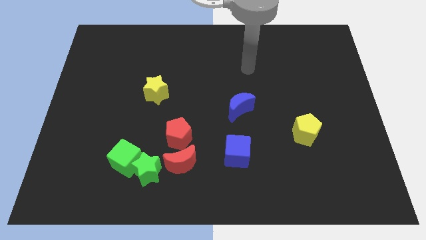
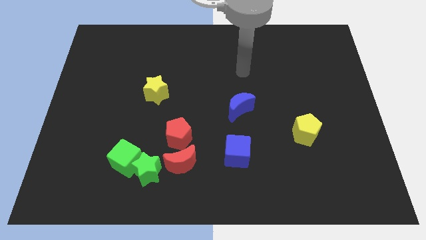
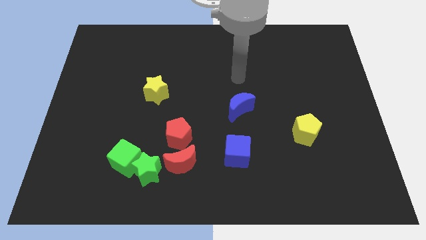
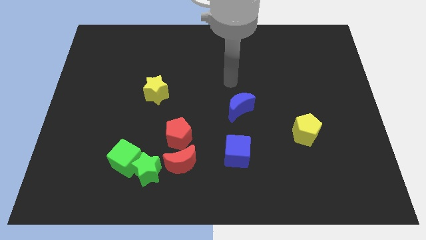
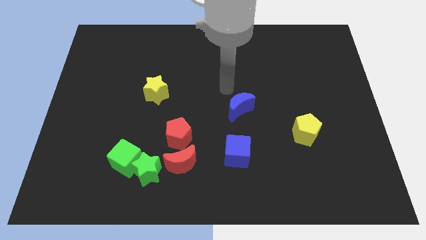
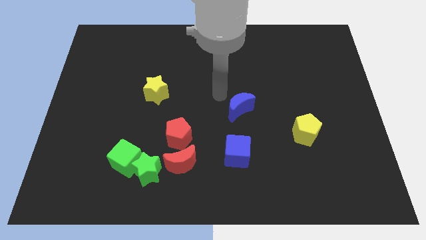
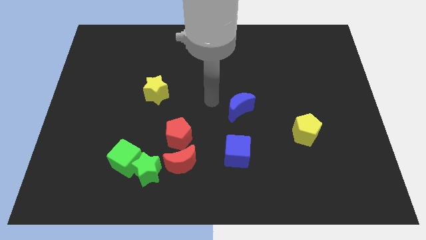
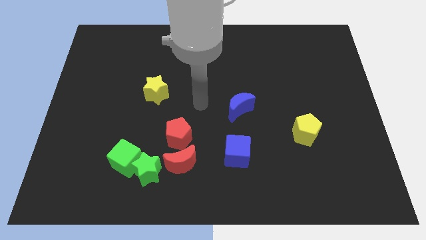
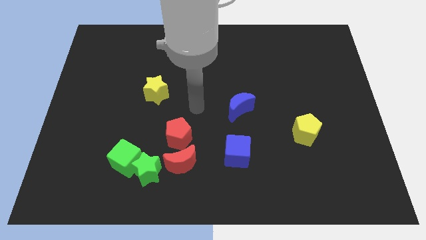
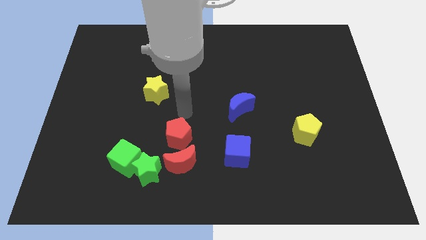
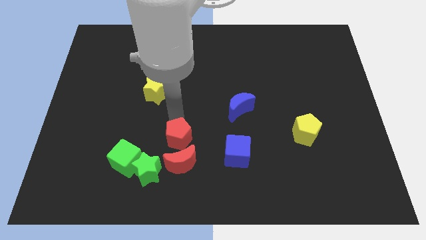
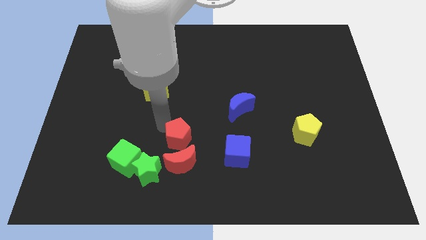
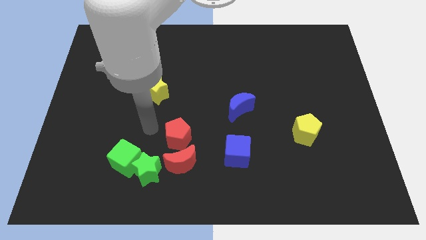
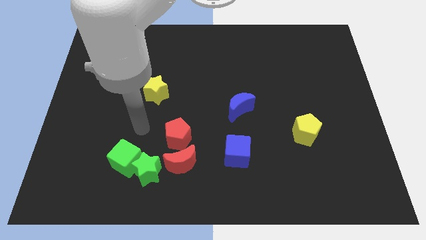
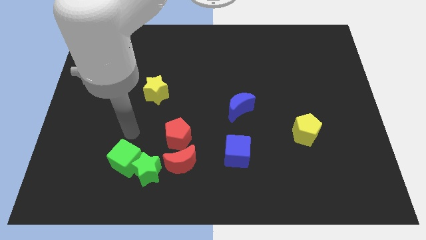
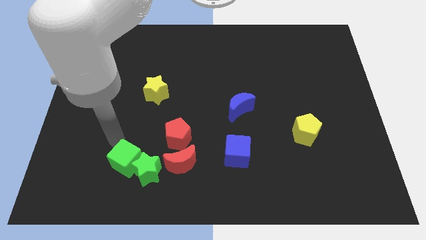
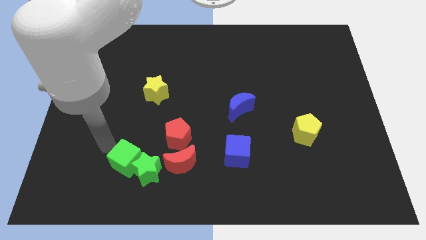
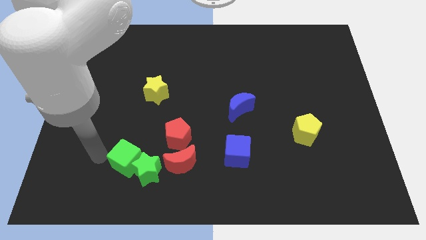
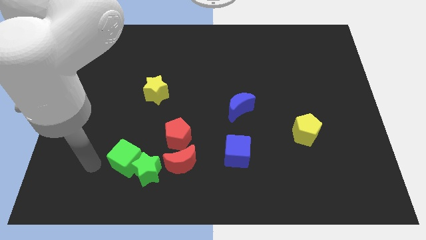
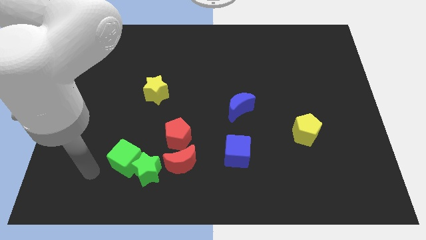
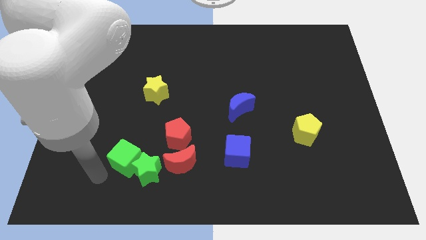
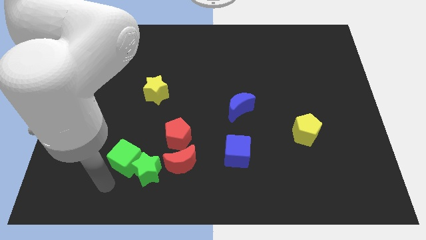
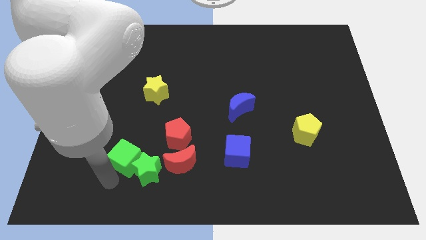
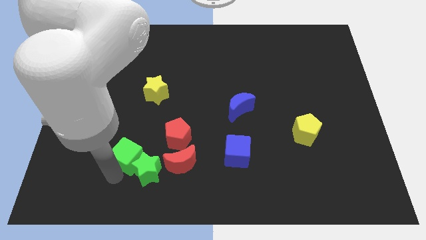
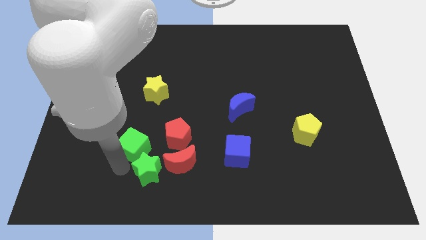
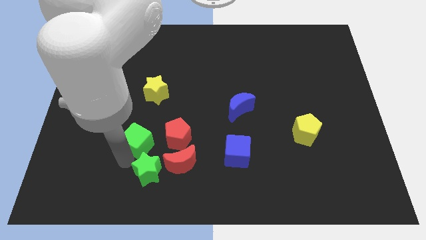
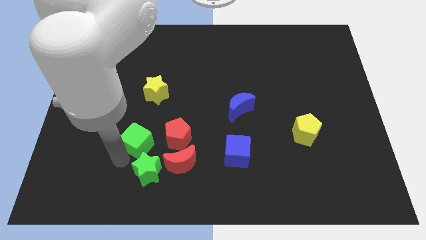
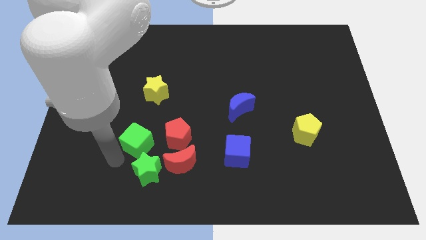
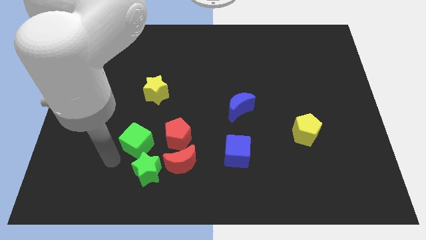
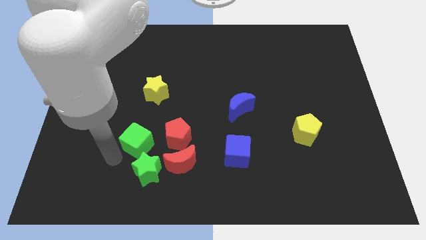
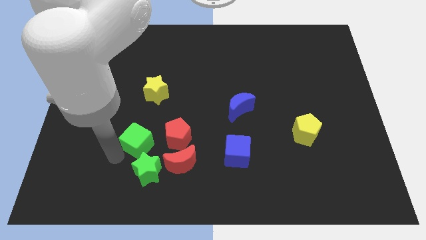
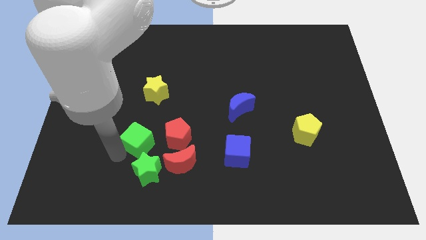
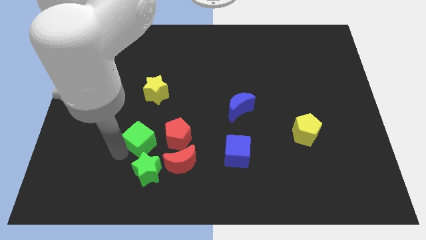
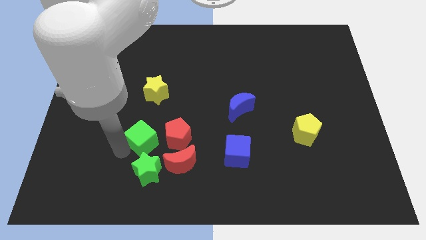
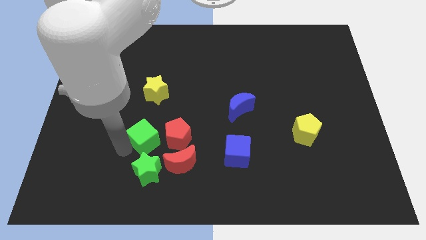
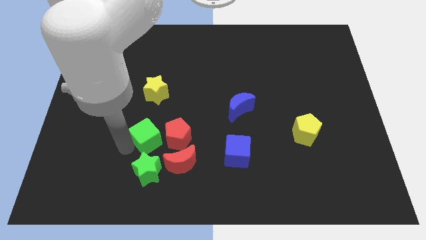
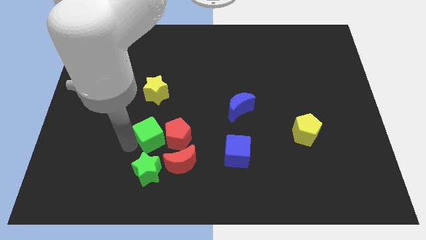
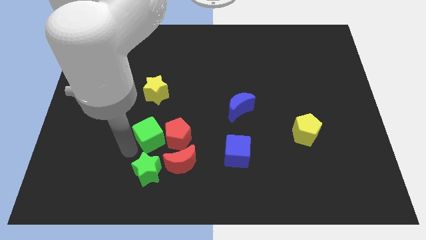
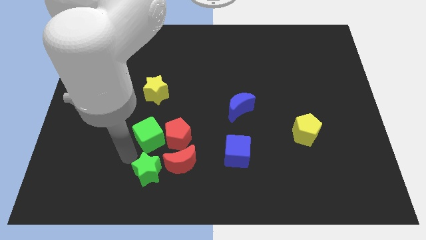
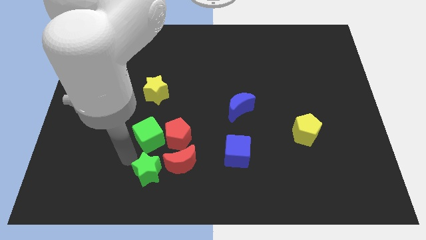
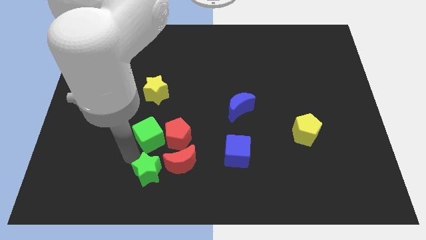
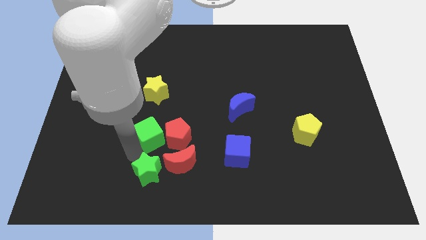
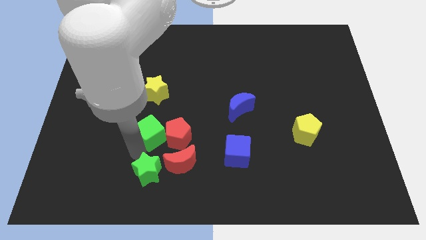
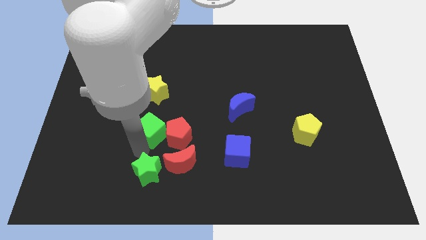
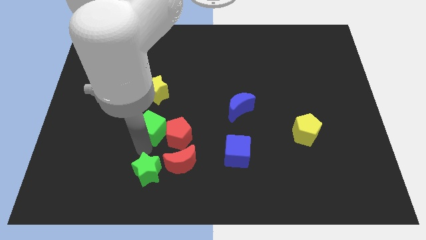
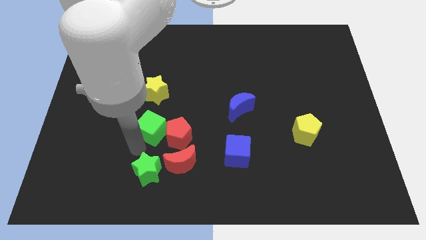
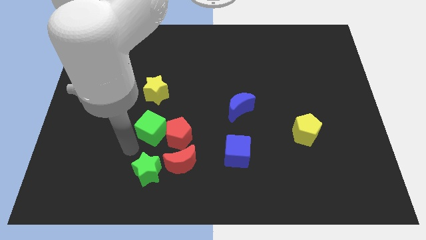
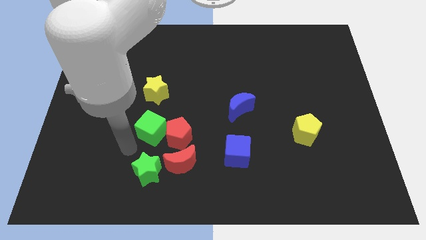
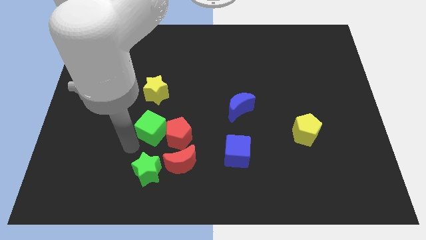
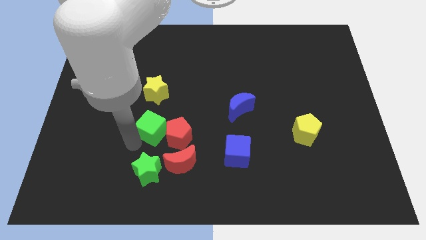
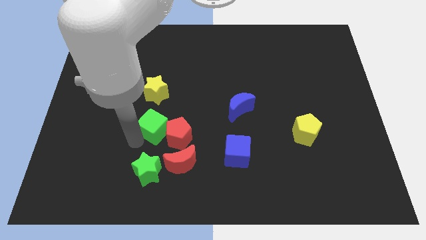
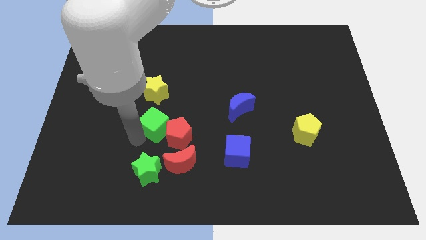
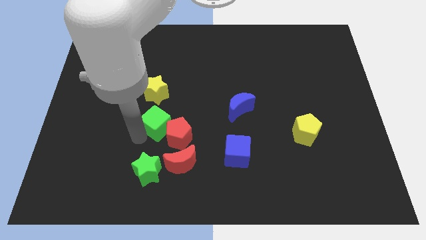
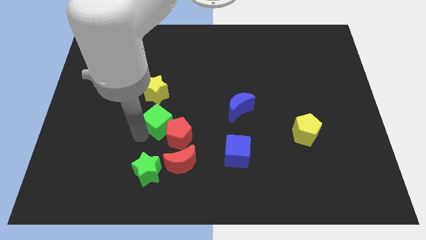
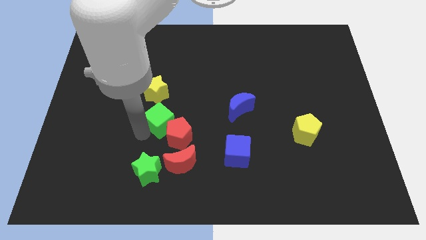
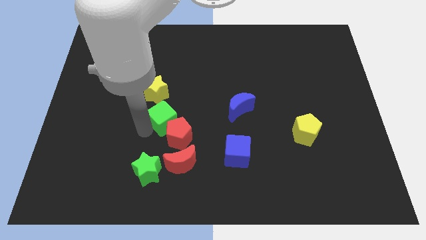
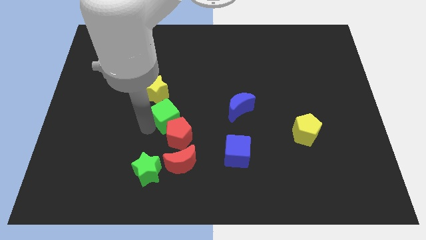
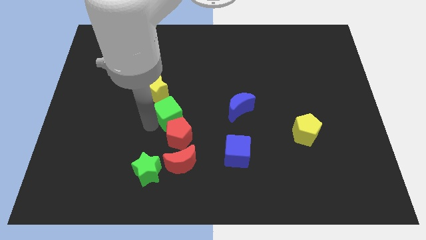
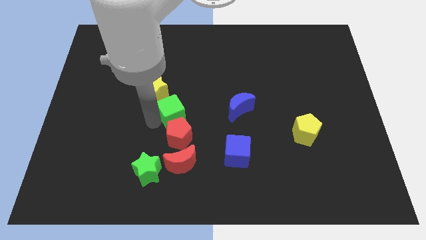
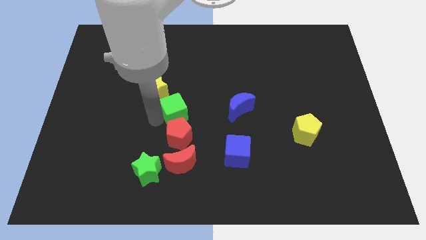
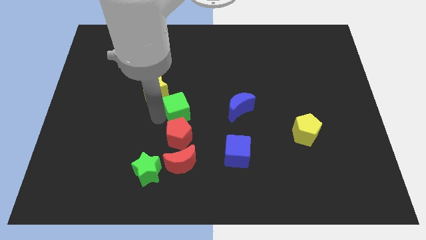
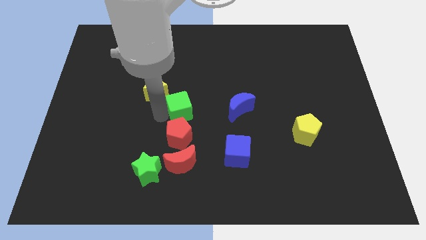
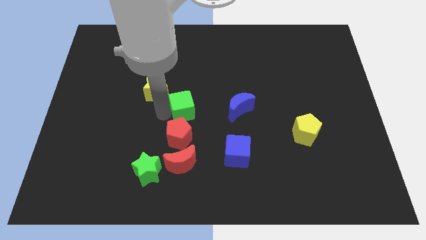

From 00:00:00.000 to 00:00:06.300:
move the green cube diagonally up and to the right of the red pentagon
